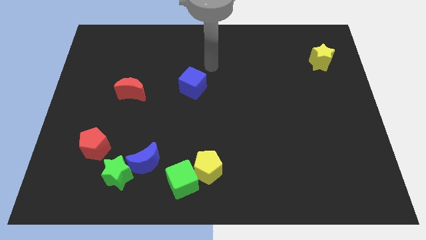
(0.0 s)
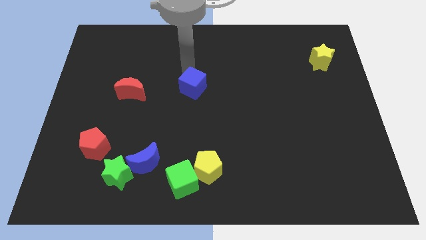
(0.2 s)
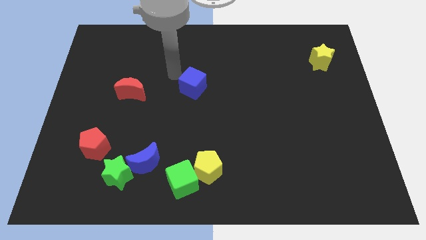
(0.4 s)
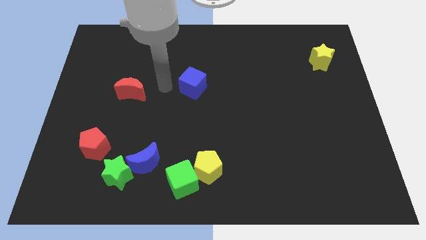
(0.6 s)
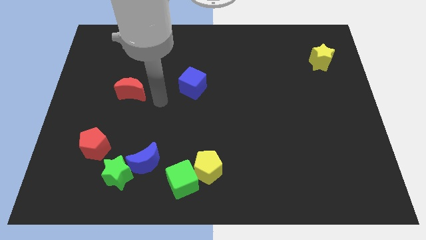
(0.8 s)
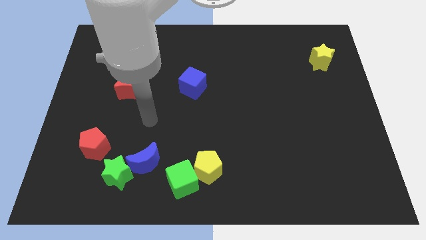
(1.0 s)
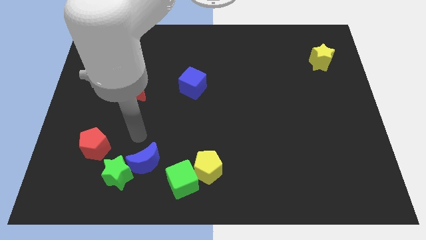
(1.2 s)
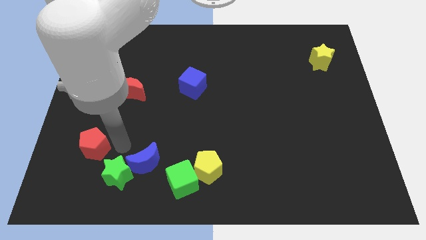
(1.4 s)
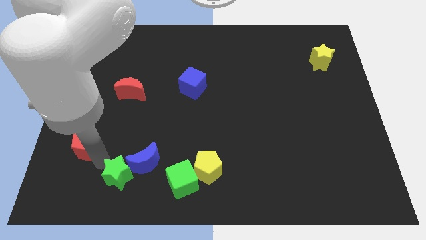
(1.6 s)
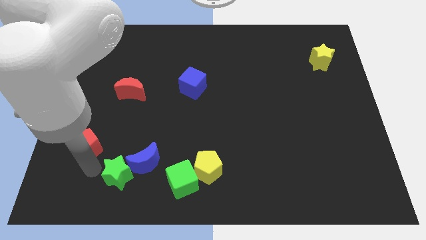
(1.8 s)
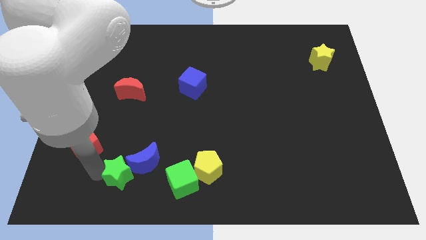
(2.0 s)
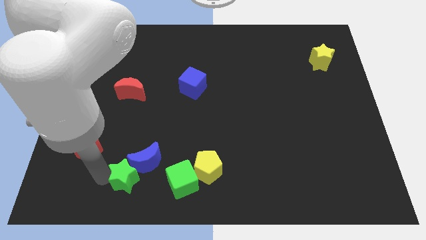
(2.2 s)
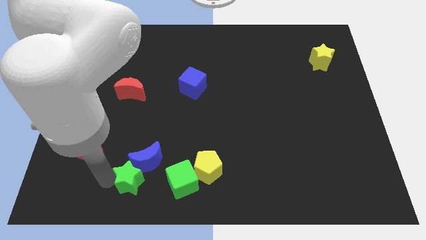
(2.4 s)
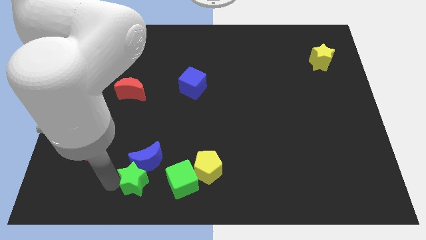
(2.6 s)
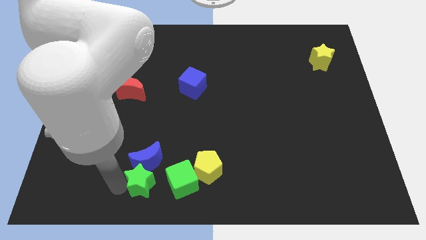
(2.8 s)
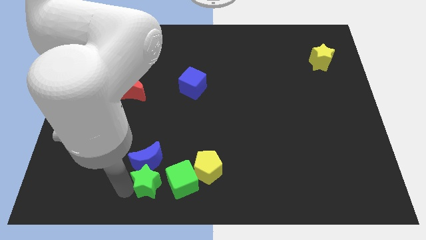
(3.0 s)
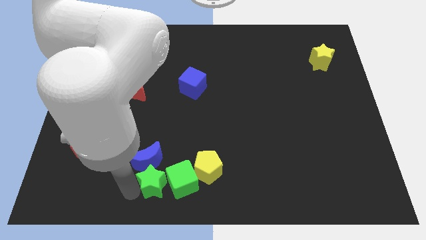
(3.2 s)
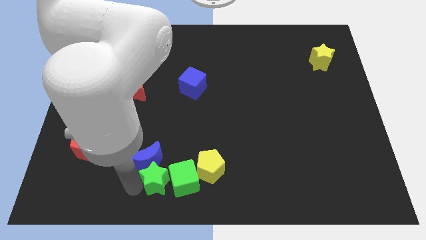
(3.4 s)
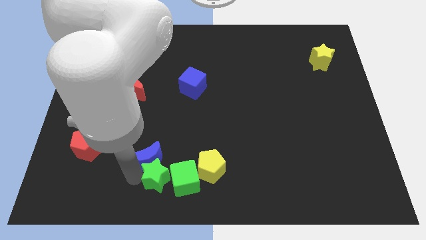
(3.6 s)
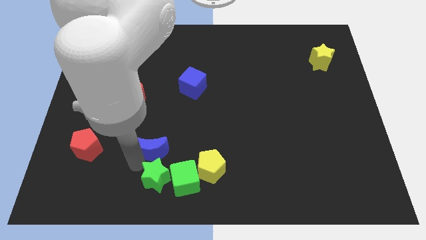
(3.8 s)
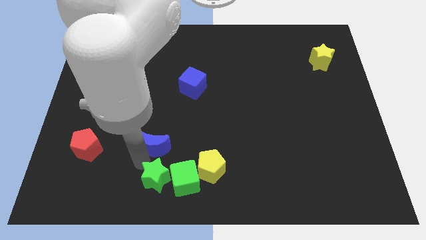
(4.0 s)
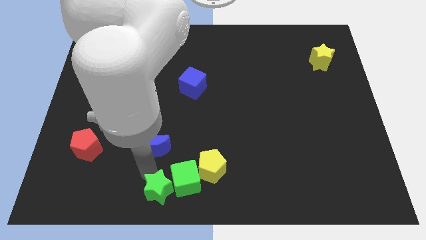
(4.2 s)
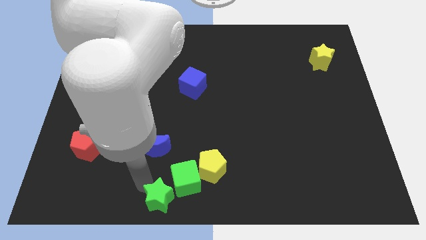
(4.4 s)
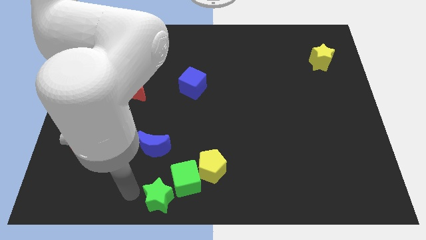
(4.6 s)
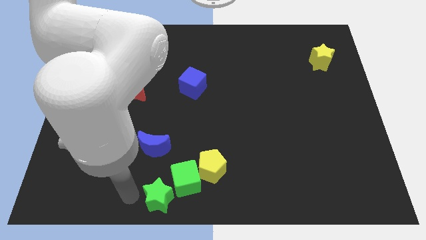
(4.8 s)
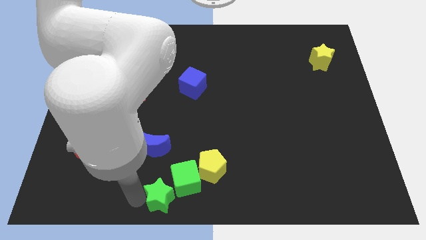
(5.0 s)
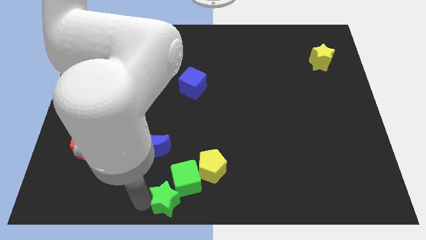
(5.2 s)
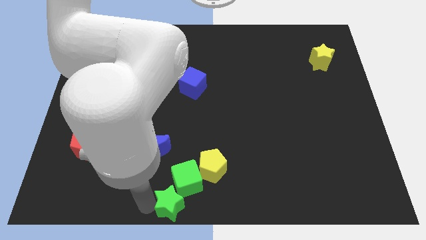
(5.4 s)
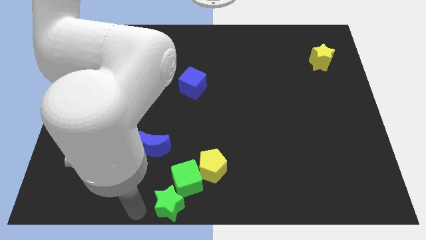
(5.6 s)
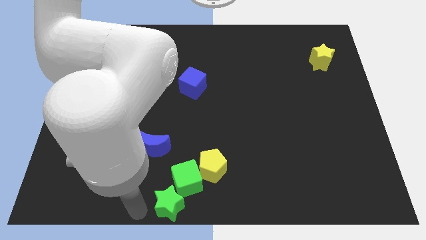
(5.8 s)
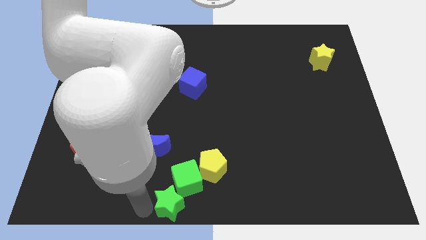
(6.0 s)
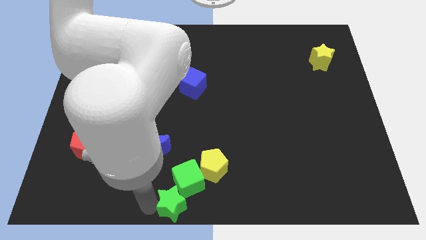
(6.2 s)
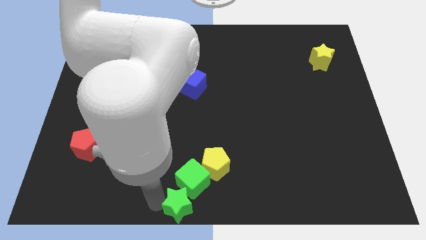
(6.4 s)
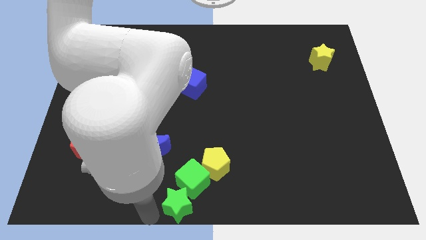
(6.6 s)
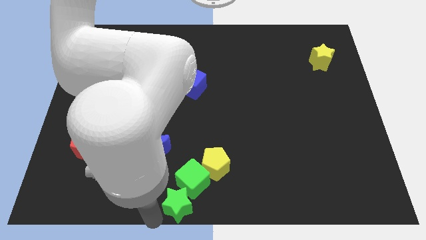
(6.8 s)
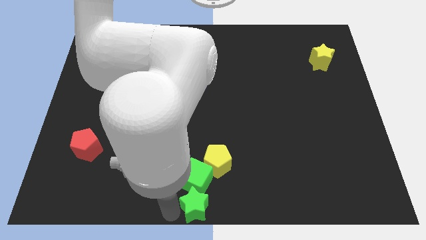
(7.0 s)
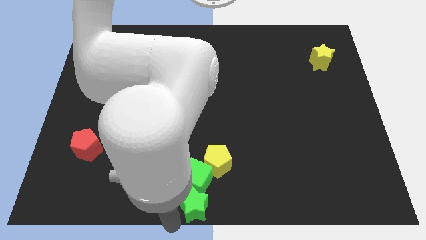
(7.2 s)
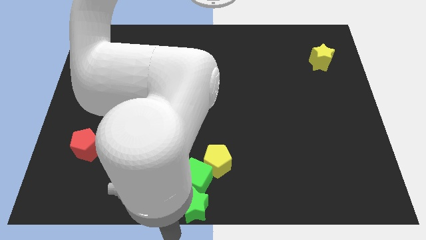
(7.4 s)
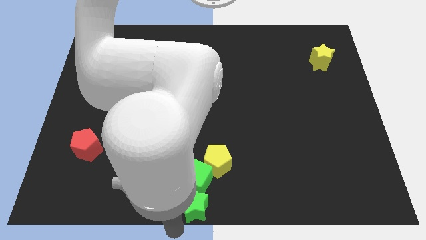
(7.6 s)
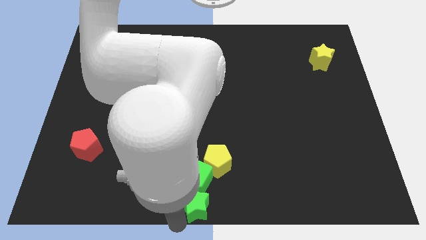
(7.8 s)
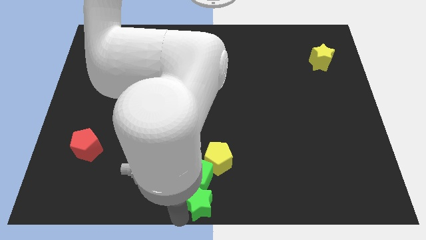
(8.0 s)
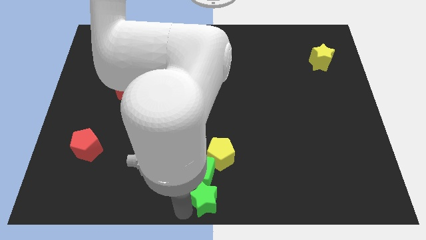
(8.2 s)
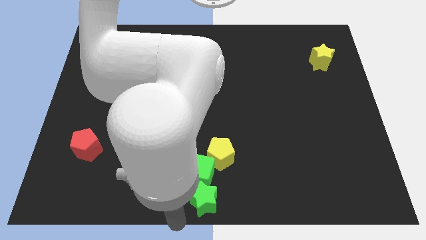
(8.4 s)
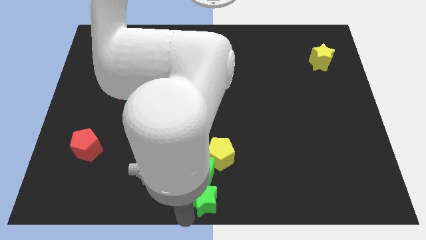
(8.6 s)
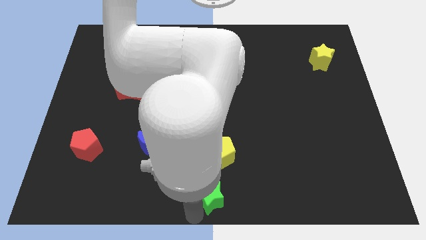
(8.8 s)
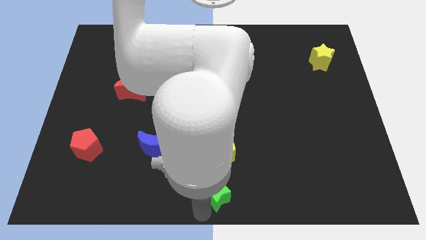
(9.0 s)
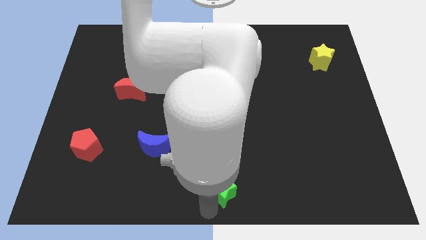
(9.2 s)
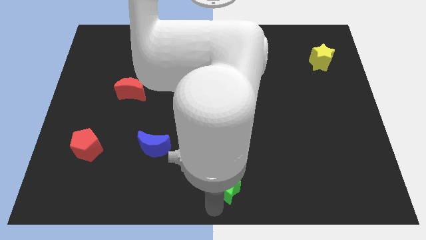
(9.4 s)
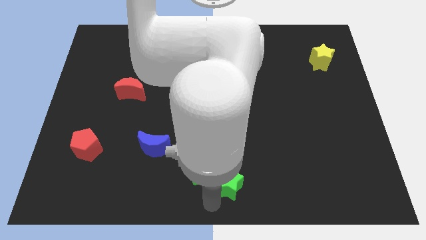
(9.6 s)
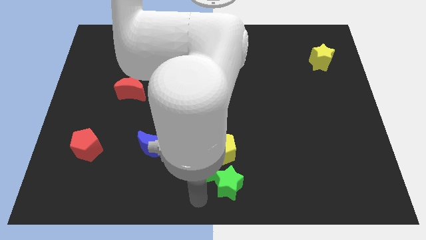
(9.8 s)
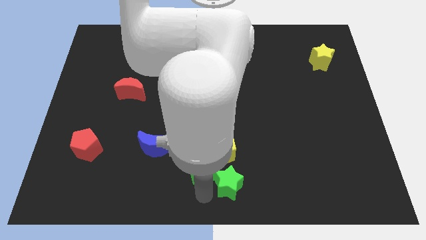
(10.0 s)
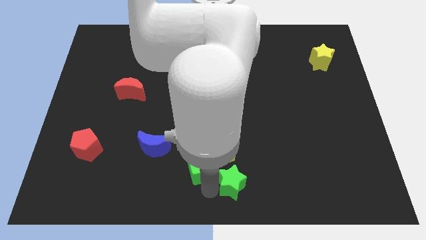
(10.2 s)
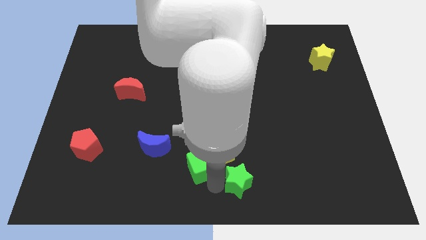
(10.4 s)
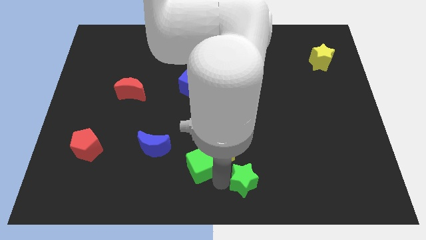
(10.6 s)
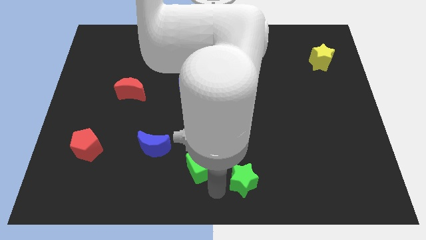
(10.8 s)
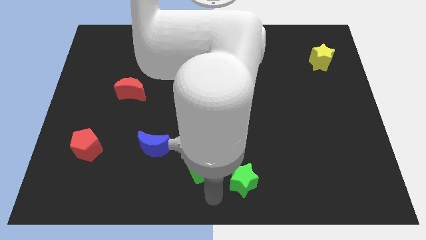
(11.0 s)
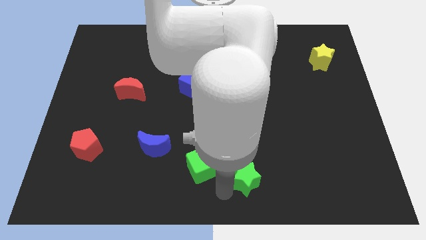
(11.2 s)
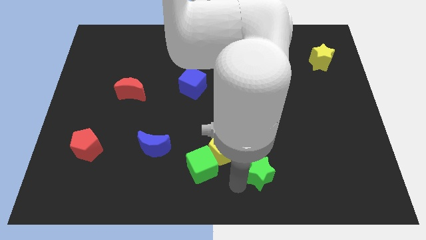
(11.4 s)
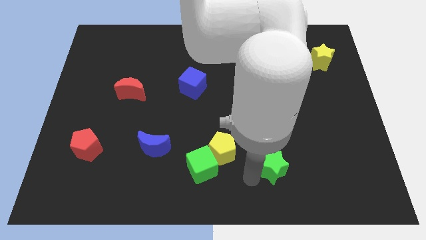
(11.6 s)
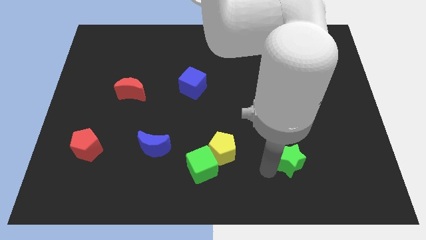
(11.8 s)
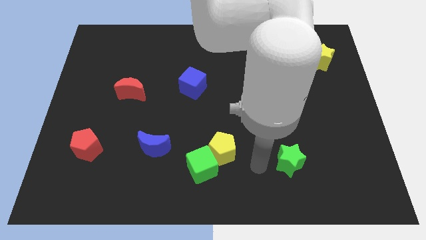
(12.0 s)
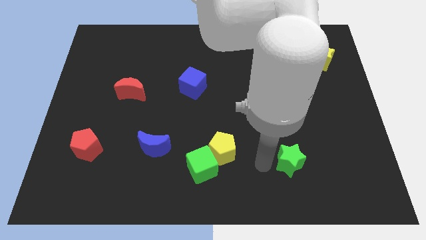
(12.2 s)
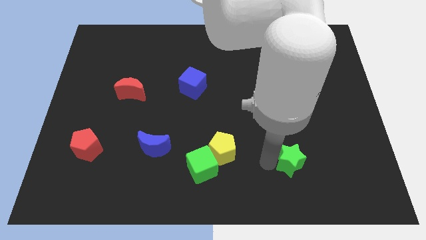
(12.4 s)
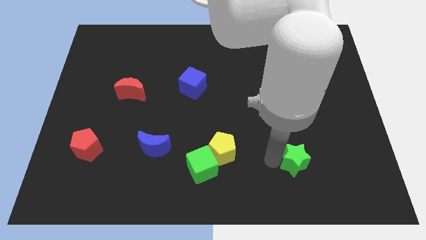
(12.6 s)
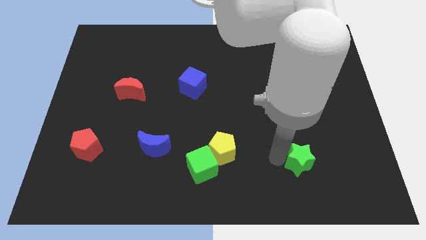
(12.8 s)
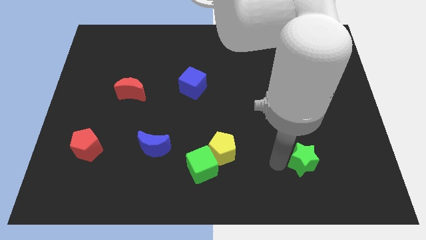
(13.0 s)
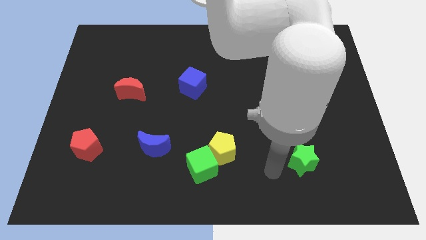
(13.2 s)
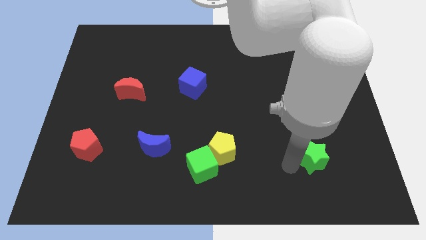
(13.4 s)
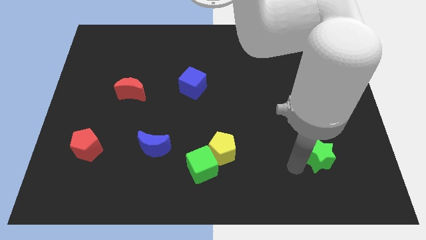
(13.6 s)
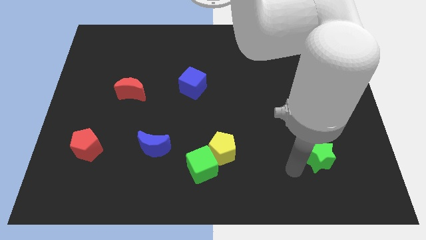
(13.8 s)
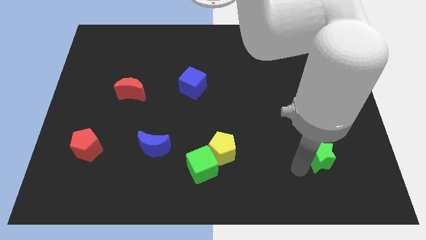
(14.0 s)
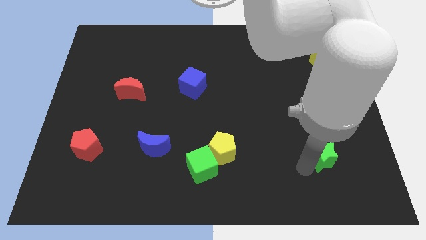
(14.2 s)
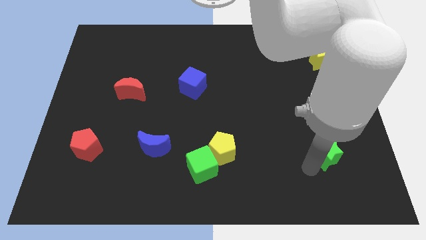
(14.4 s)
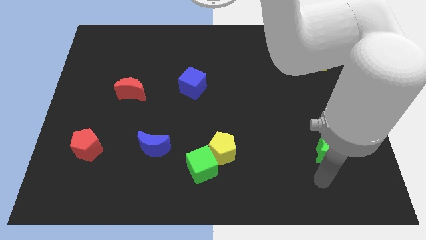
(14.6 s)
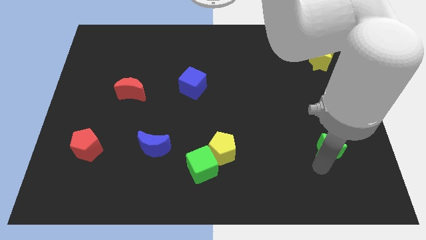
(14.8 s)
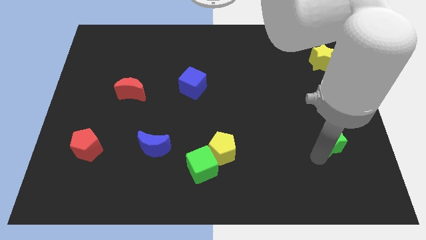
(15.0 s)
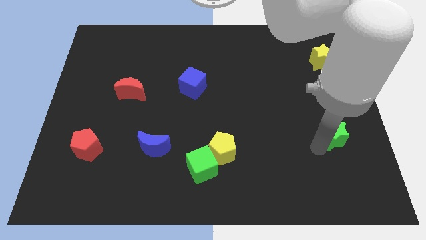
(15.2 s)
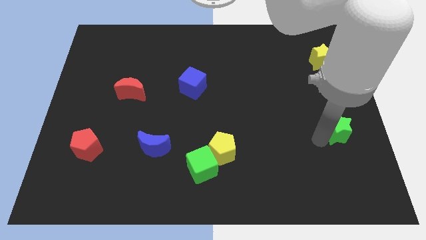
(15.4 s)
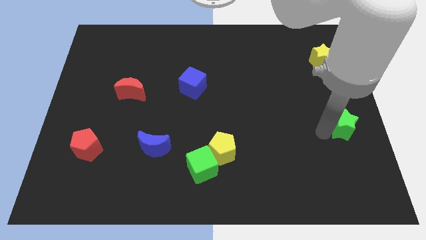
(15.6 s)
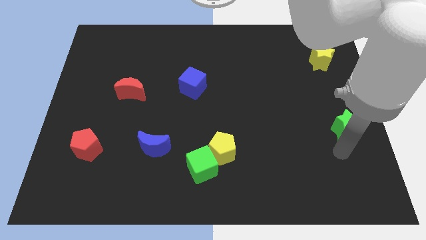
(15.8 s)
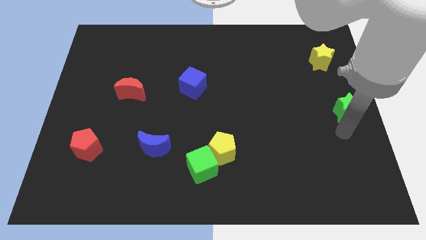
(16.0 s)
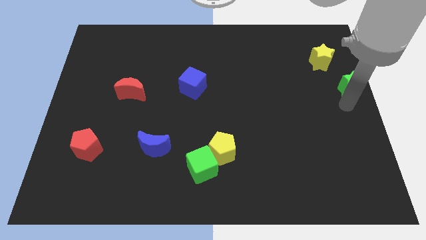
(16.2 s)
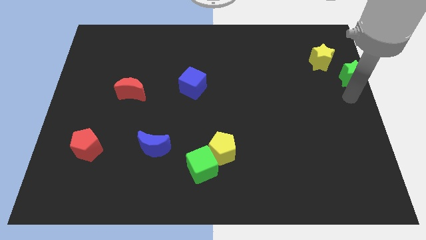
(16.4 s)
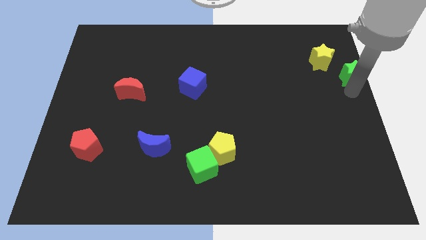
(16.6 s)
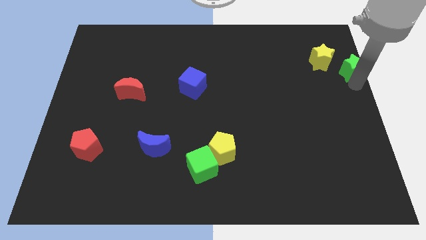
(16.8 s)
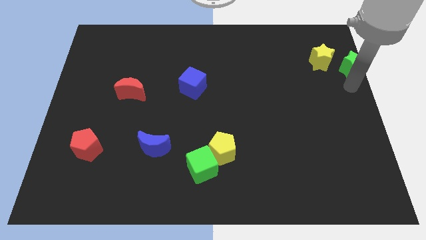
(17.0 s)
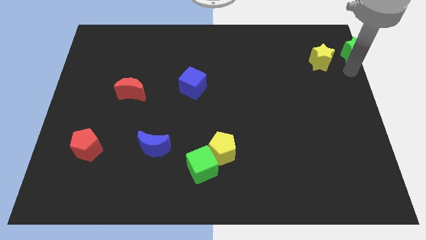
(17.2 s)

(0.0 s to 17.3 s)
slide the green star to the top right
